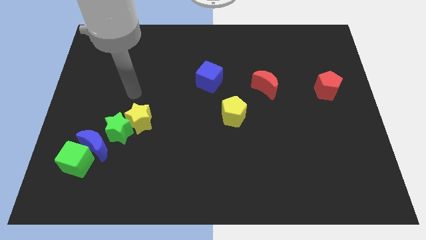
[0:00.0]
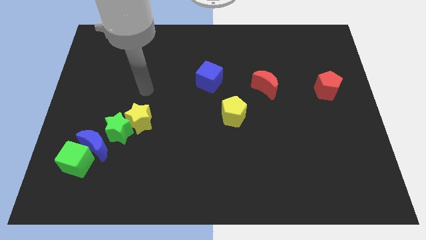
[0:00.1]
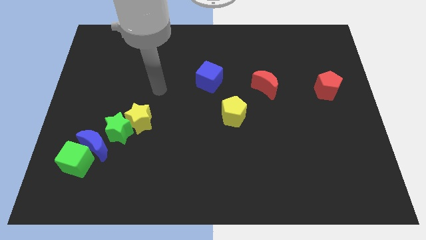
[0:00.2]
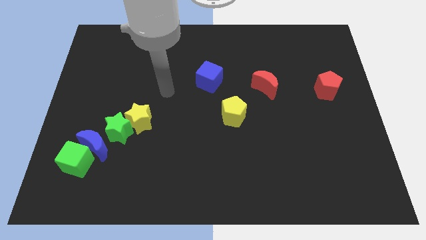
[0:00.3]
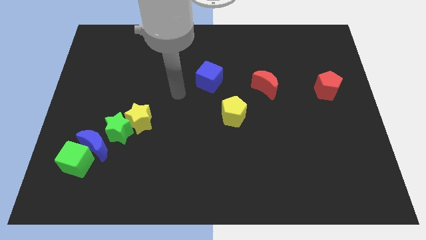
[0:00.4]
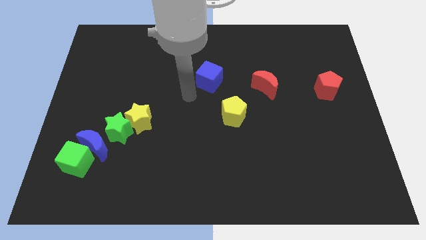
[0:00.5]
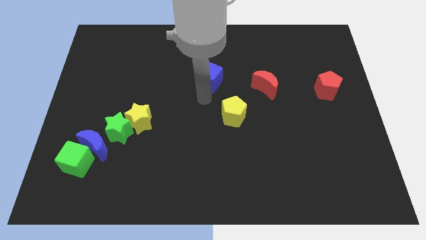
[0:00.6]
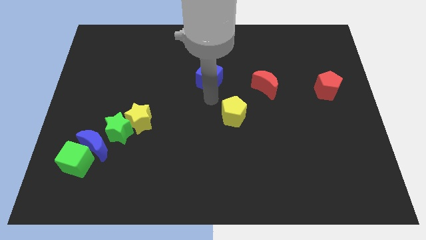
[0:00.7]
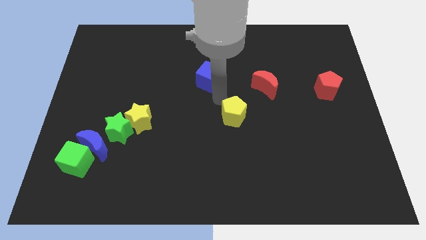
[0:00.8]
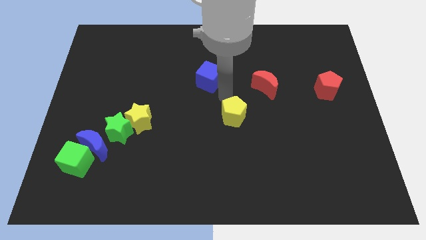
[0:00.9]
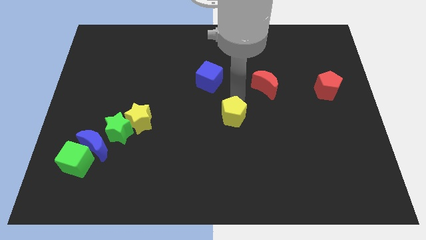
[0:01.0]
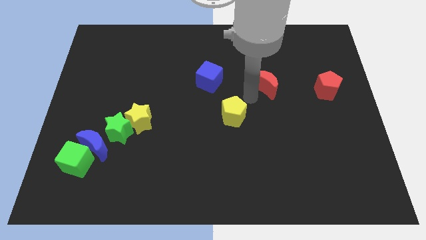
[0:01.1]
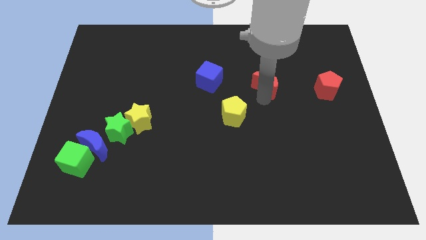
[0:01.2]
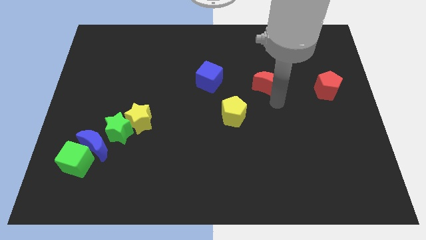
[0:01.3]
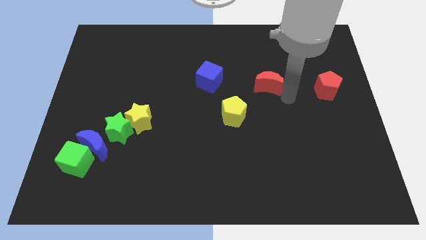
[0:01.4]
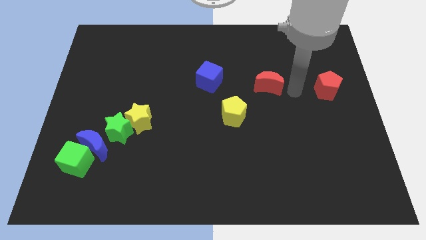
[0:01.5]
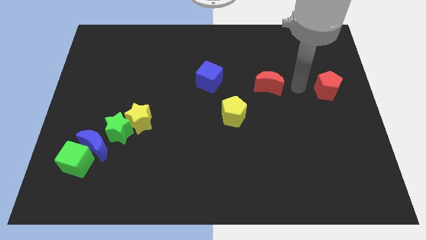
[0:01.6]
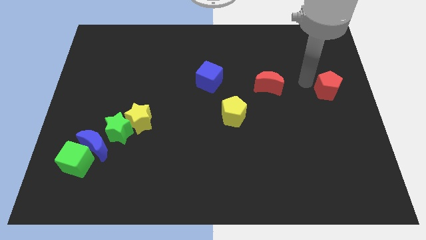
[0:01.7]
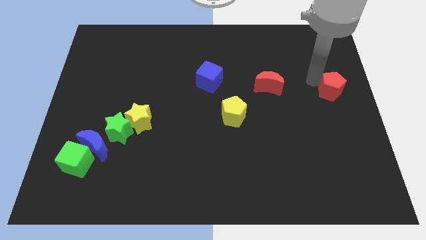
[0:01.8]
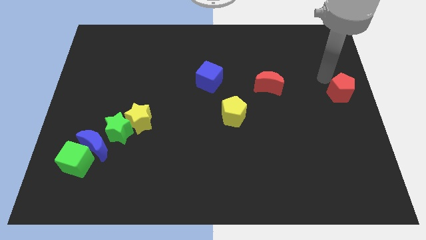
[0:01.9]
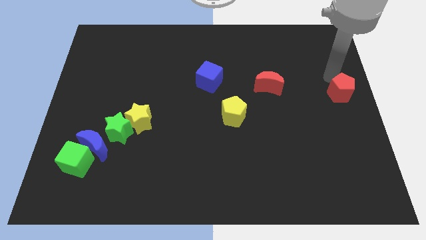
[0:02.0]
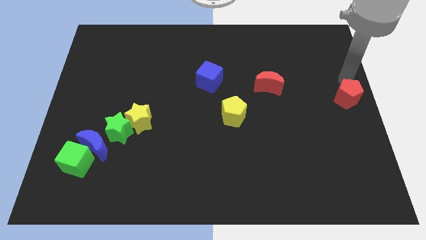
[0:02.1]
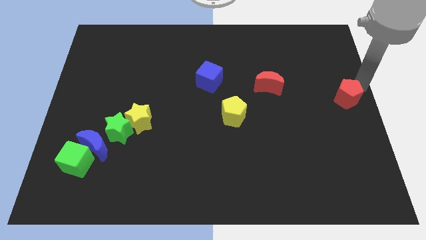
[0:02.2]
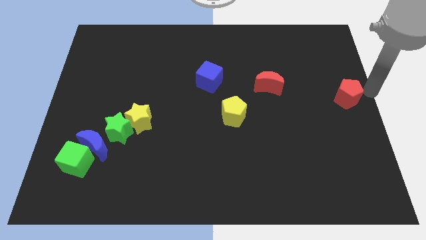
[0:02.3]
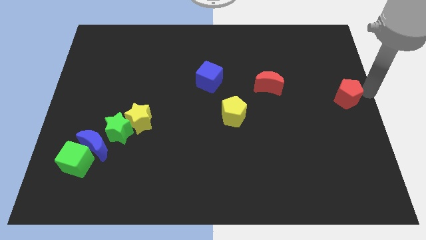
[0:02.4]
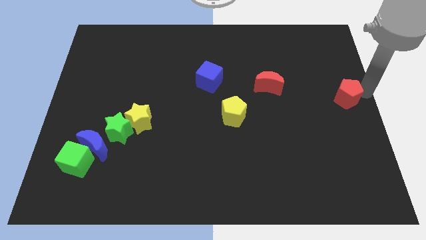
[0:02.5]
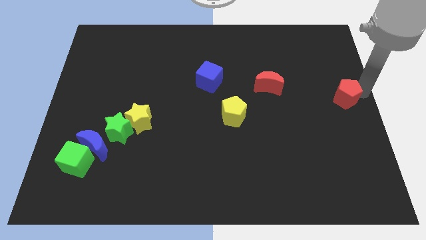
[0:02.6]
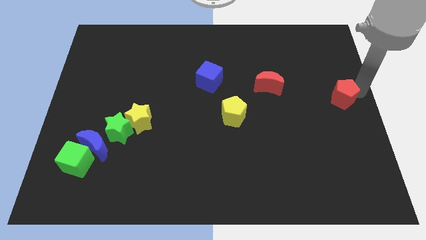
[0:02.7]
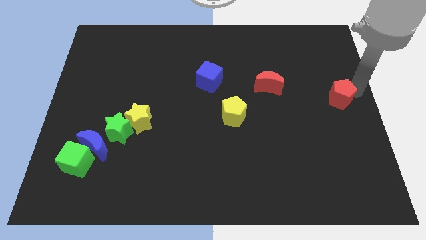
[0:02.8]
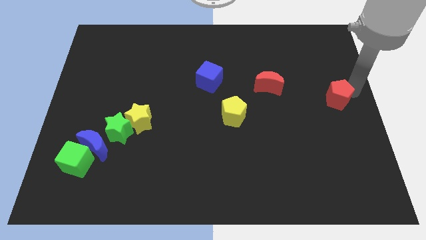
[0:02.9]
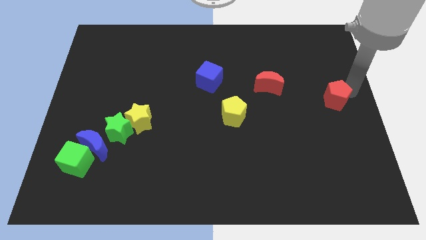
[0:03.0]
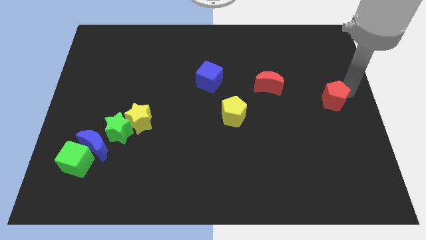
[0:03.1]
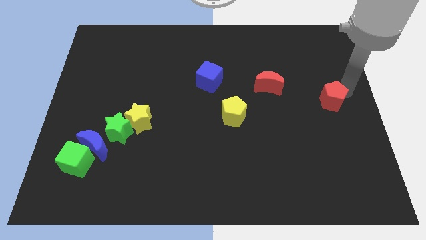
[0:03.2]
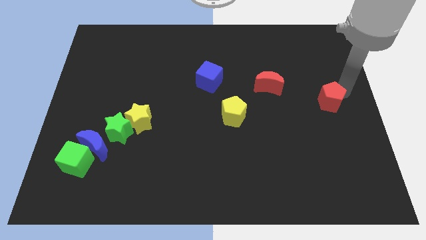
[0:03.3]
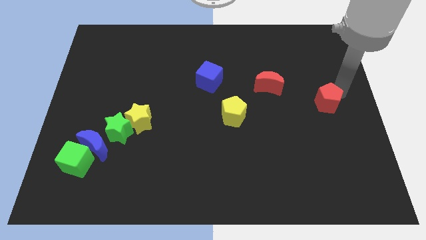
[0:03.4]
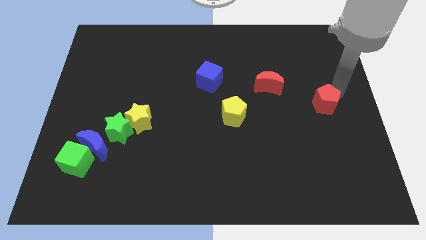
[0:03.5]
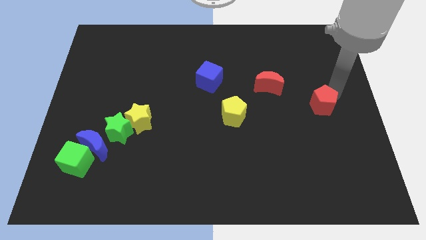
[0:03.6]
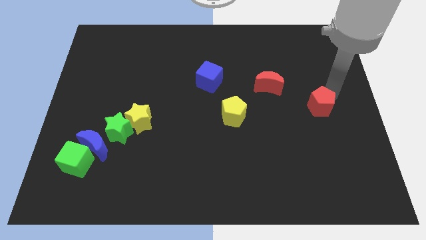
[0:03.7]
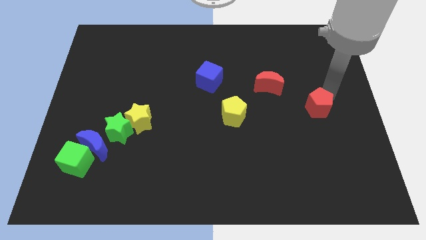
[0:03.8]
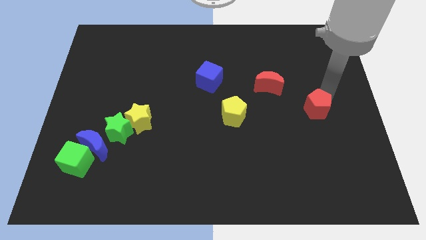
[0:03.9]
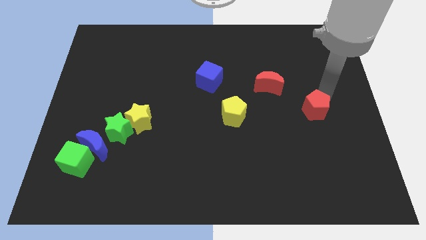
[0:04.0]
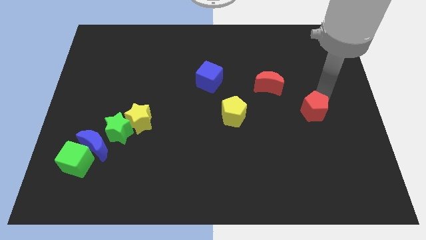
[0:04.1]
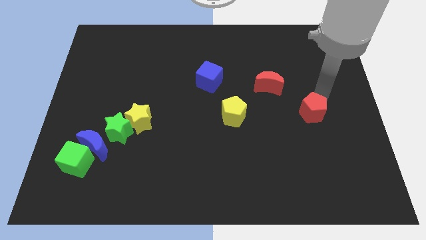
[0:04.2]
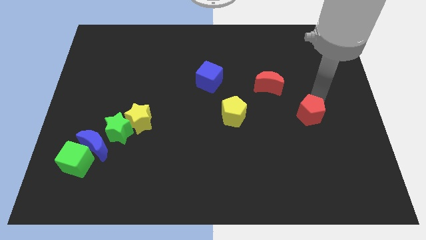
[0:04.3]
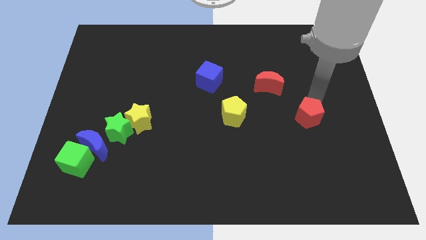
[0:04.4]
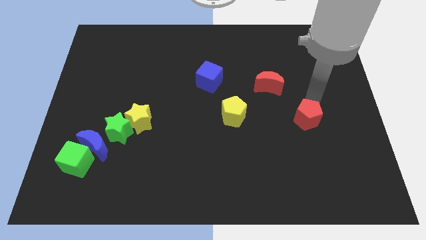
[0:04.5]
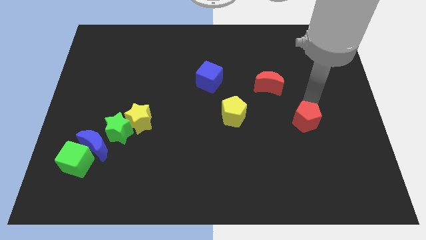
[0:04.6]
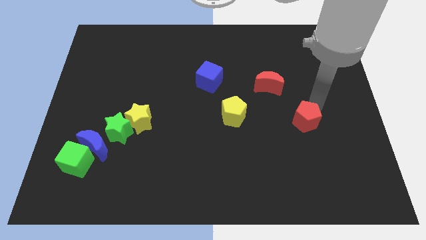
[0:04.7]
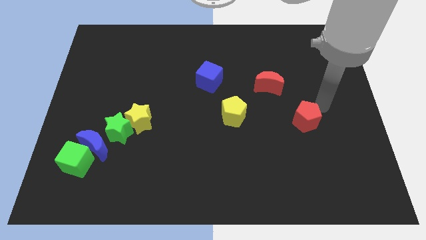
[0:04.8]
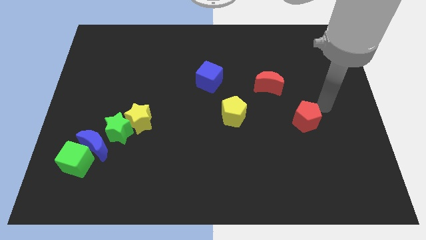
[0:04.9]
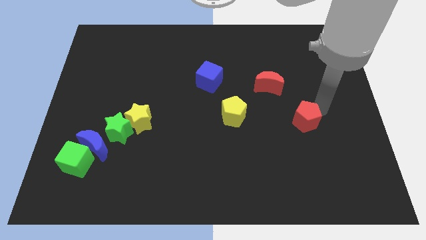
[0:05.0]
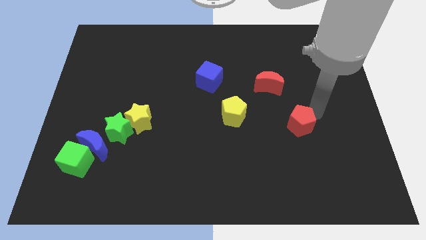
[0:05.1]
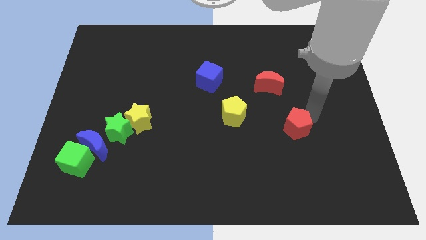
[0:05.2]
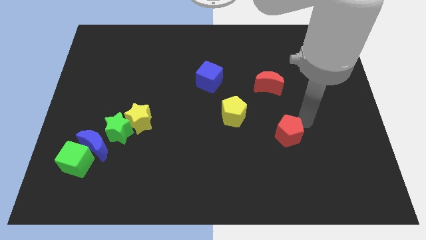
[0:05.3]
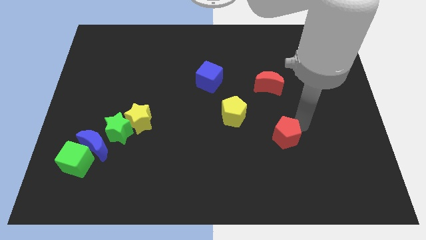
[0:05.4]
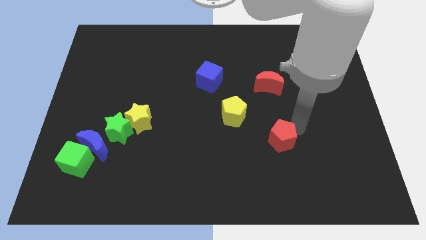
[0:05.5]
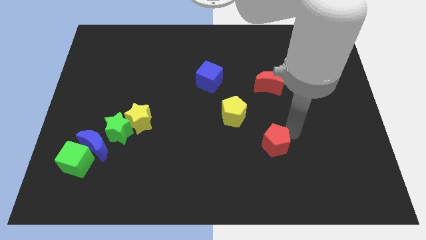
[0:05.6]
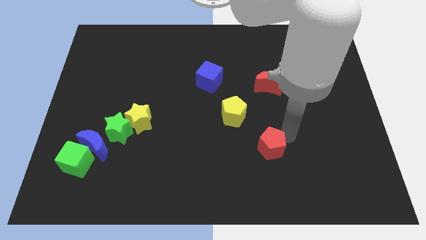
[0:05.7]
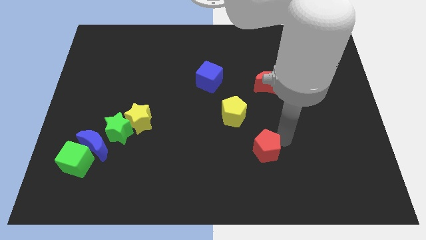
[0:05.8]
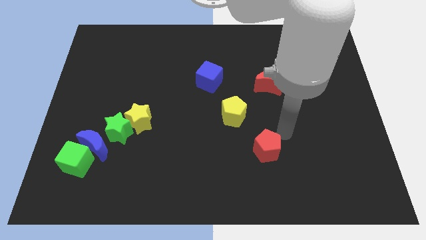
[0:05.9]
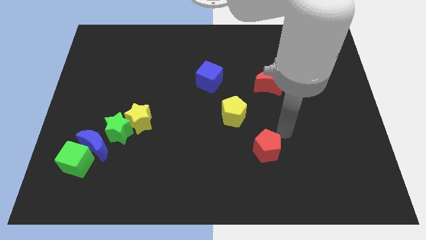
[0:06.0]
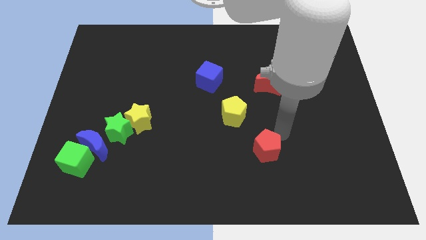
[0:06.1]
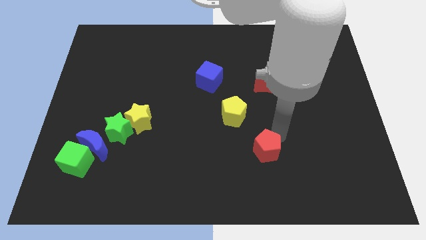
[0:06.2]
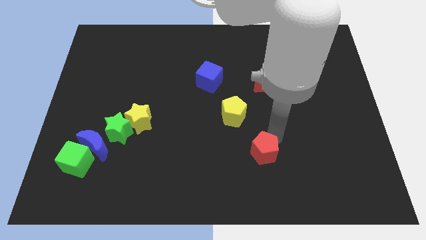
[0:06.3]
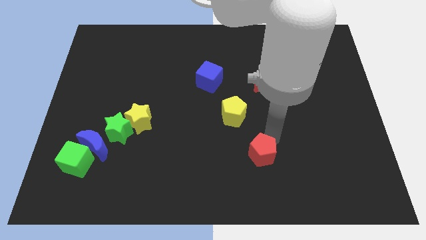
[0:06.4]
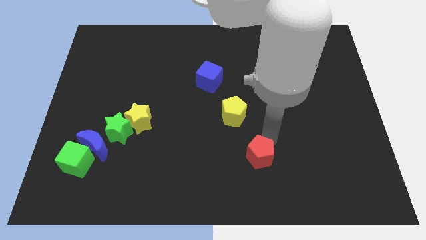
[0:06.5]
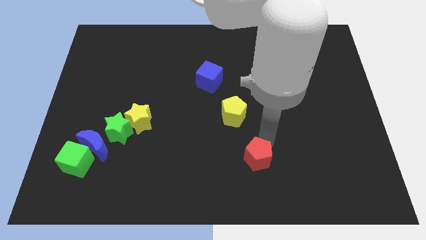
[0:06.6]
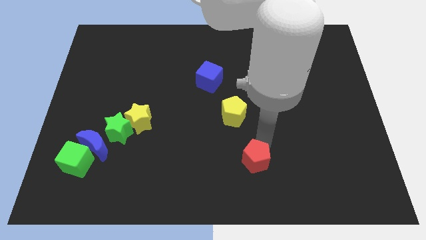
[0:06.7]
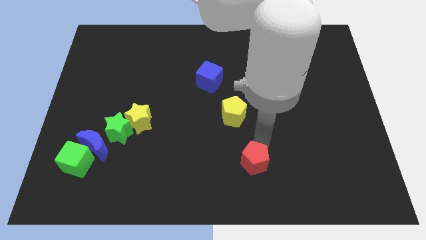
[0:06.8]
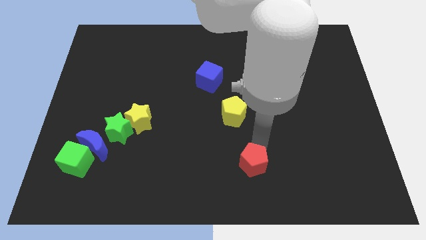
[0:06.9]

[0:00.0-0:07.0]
push the red pentagon to the bottom
